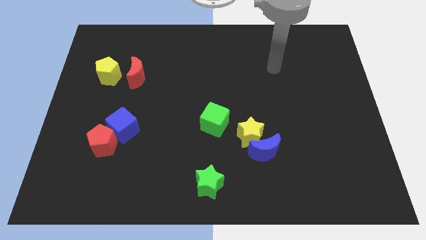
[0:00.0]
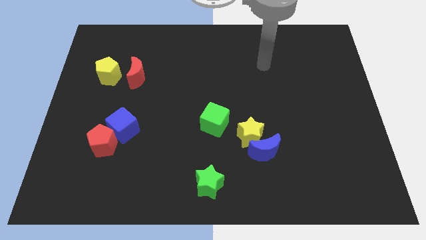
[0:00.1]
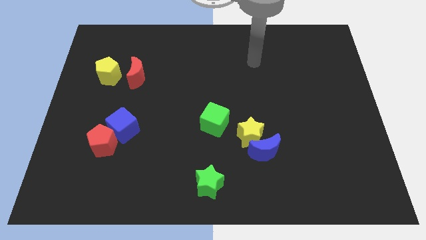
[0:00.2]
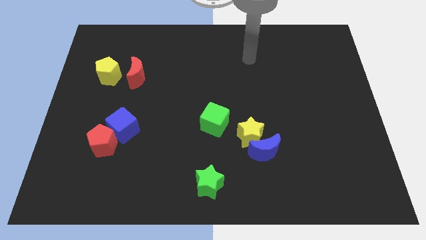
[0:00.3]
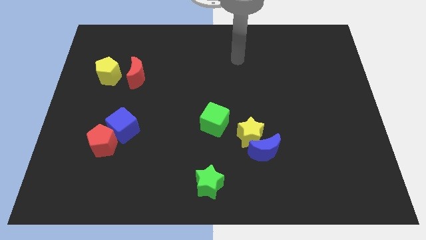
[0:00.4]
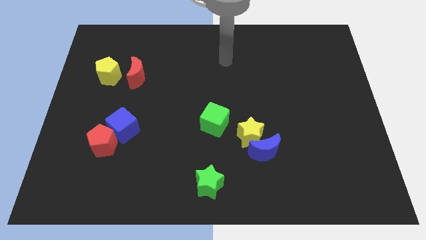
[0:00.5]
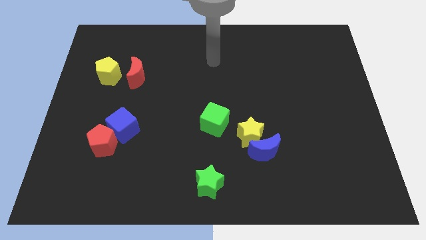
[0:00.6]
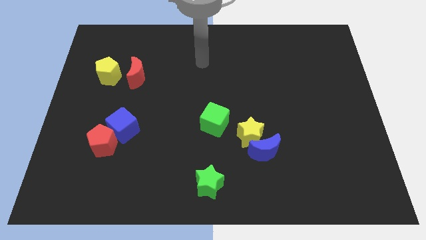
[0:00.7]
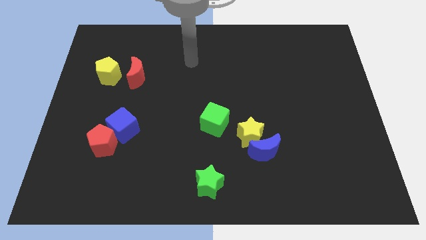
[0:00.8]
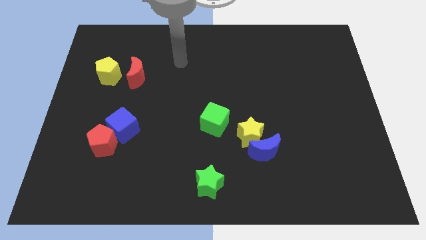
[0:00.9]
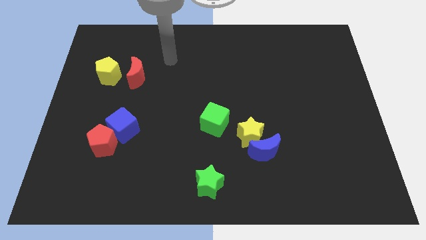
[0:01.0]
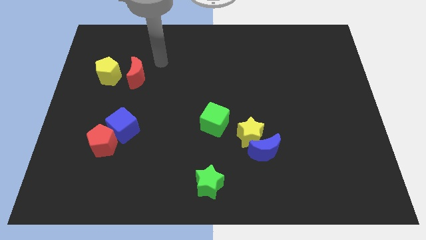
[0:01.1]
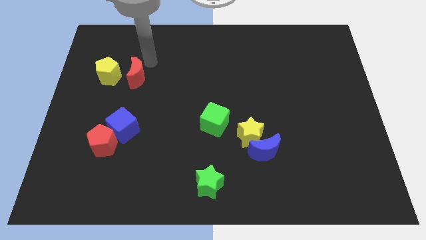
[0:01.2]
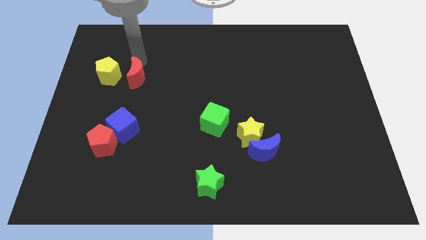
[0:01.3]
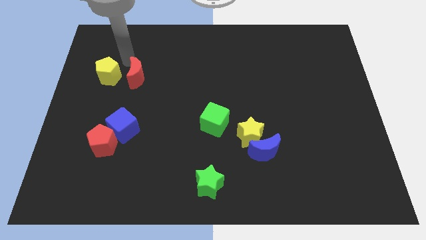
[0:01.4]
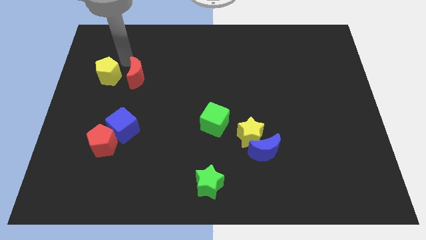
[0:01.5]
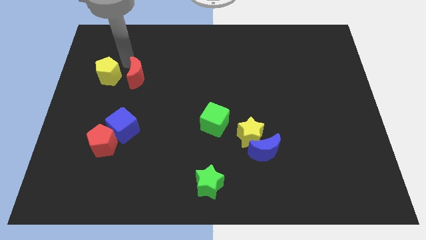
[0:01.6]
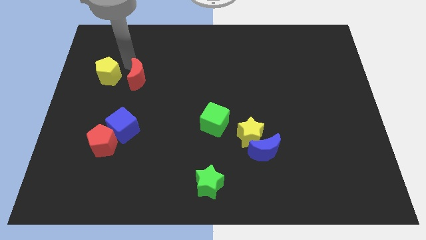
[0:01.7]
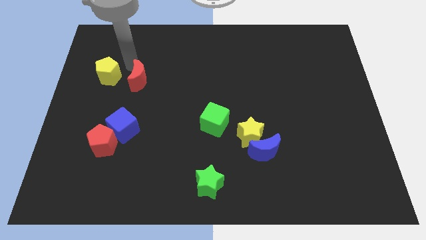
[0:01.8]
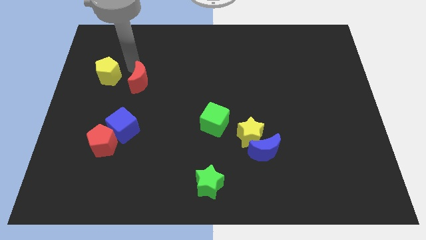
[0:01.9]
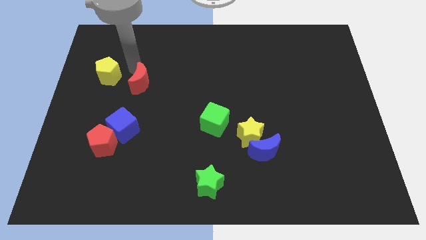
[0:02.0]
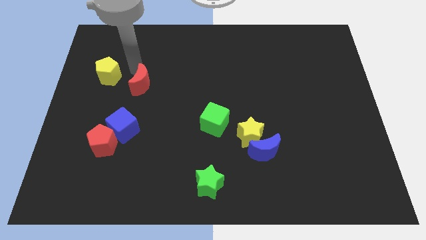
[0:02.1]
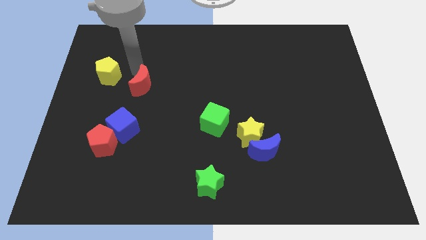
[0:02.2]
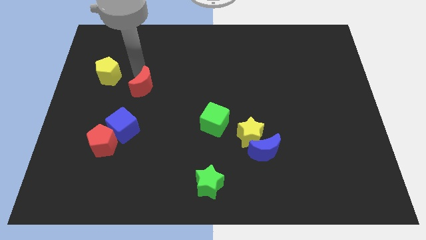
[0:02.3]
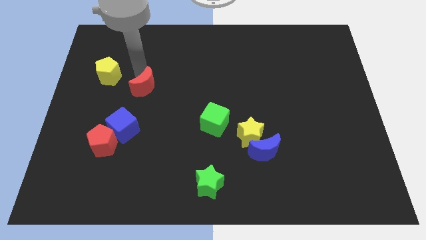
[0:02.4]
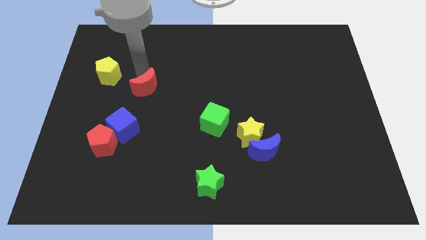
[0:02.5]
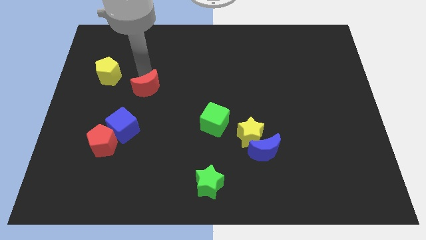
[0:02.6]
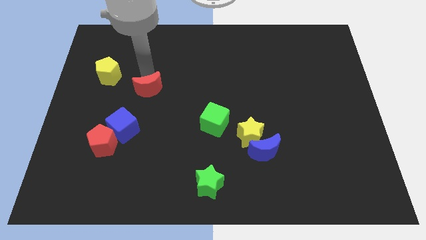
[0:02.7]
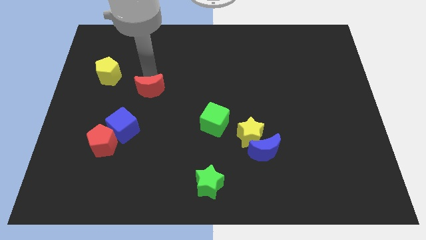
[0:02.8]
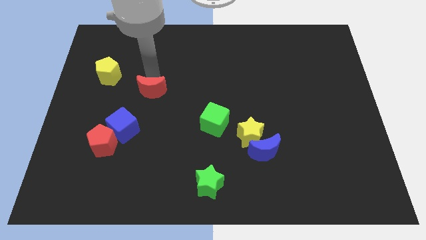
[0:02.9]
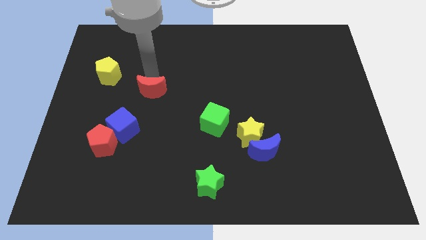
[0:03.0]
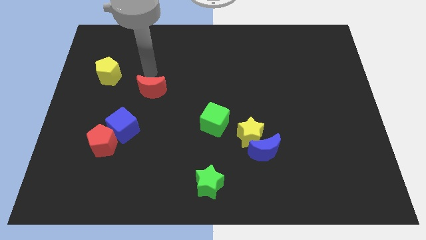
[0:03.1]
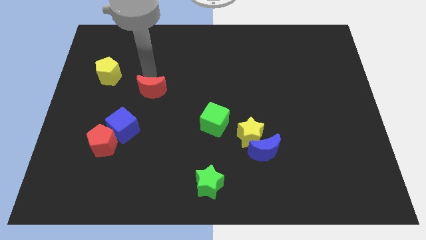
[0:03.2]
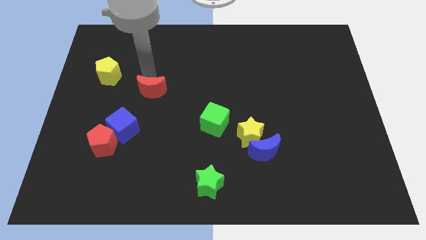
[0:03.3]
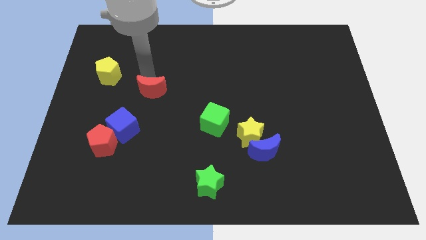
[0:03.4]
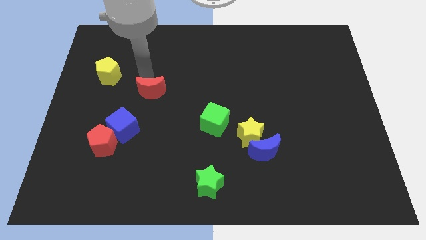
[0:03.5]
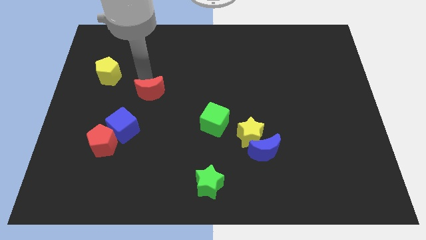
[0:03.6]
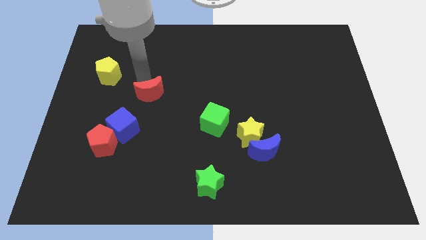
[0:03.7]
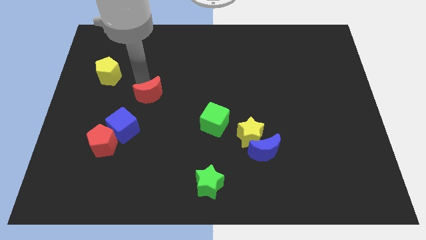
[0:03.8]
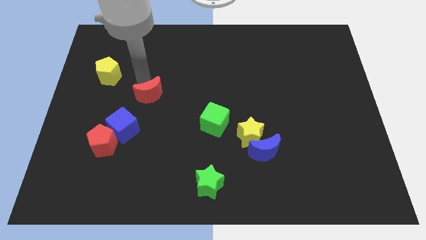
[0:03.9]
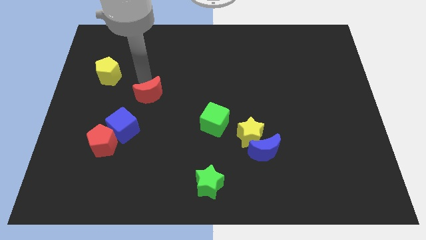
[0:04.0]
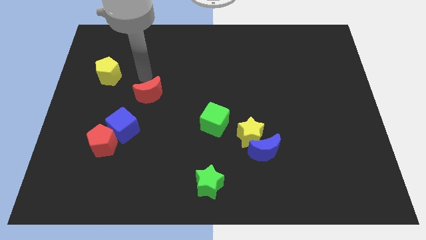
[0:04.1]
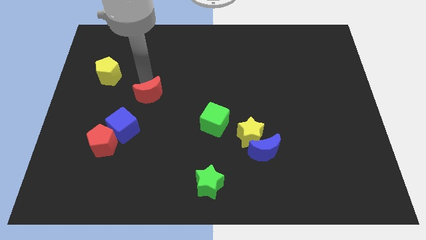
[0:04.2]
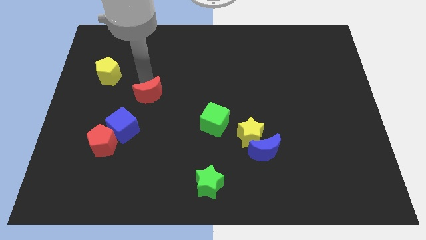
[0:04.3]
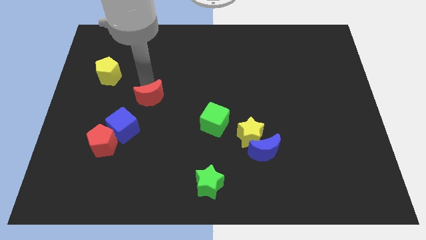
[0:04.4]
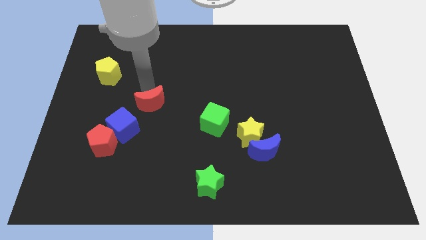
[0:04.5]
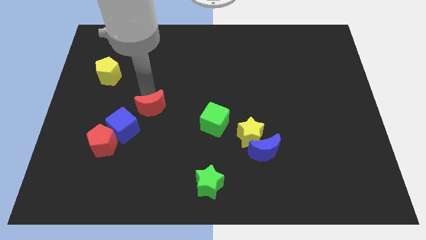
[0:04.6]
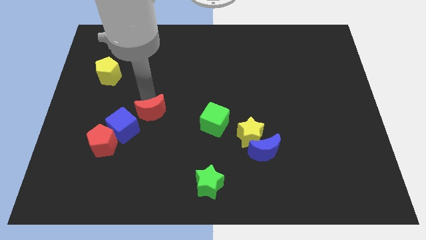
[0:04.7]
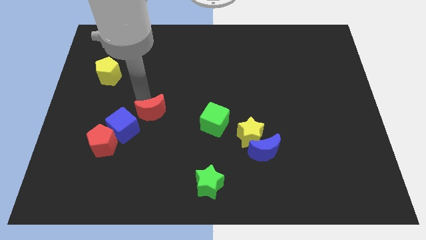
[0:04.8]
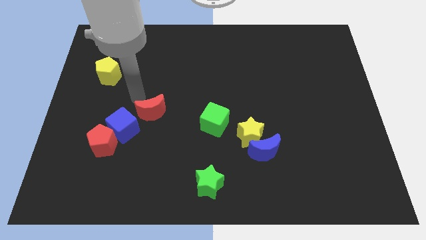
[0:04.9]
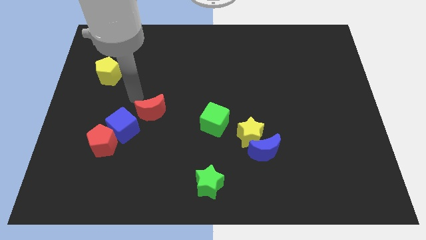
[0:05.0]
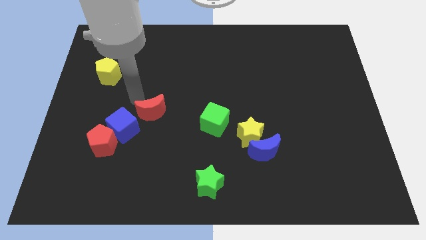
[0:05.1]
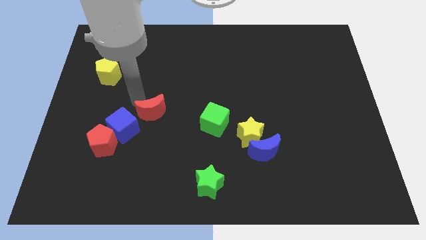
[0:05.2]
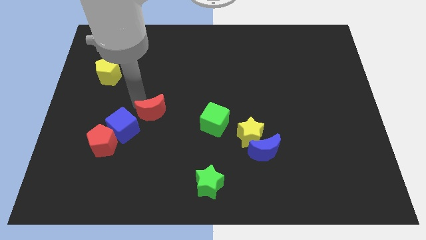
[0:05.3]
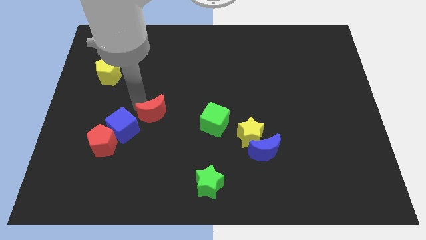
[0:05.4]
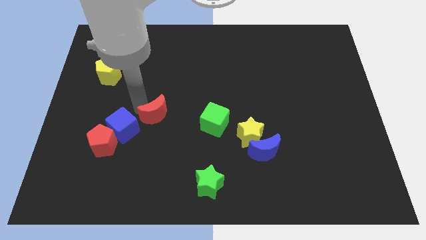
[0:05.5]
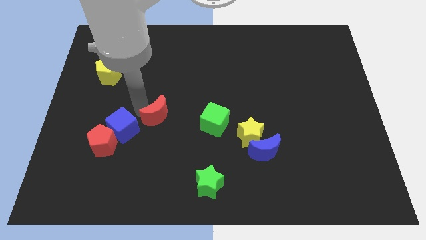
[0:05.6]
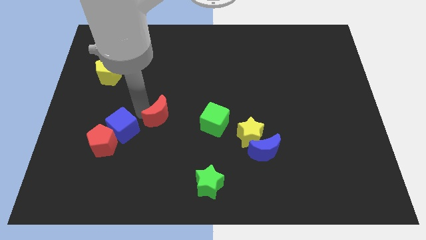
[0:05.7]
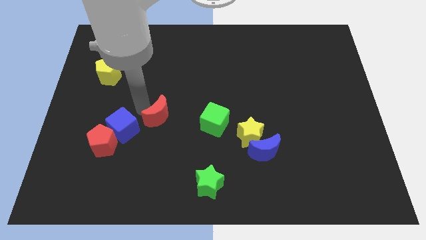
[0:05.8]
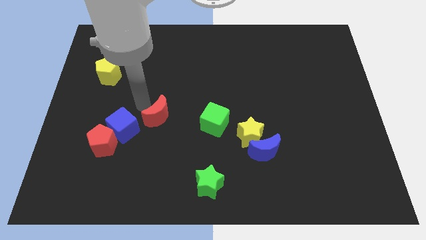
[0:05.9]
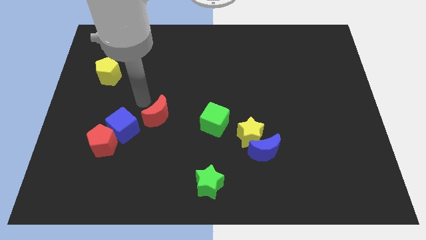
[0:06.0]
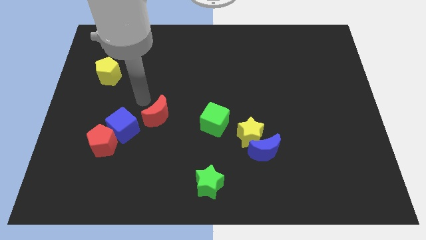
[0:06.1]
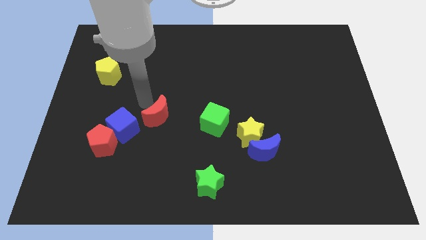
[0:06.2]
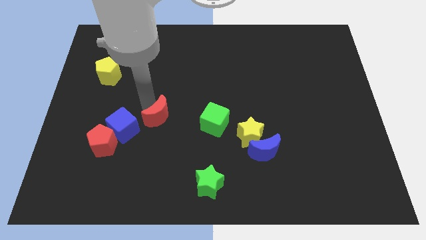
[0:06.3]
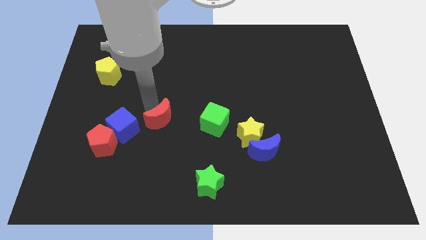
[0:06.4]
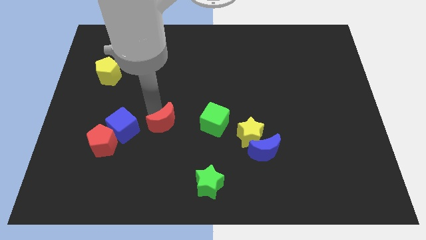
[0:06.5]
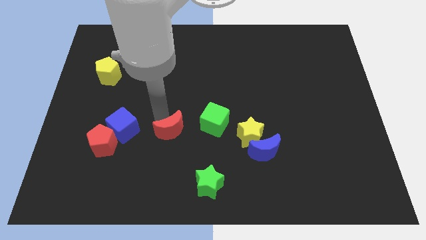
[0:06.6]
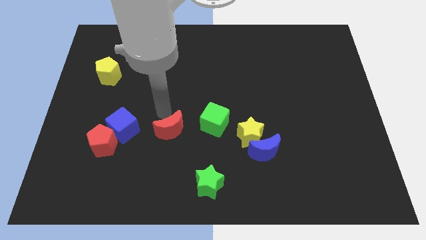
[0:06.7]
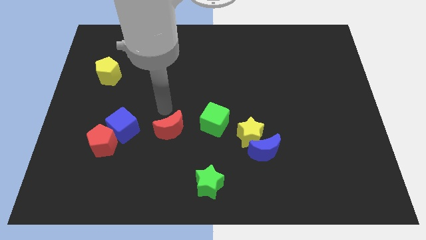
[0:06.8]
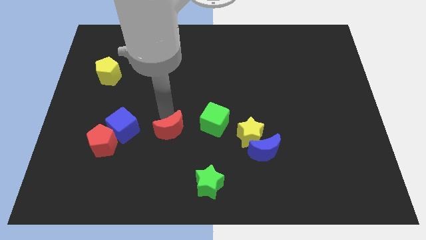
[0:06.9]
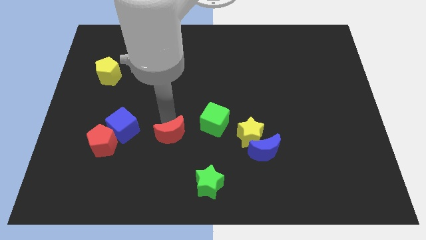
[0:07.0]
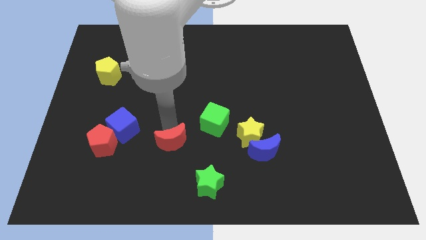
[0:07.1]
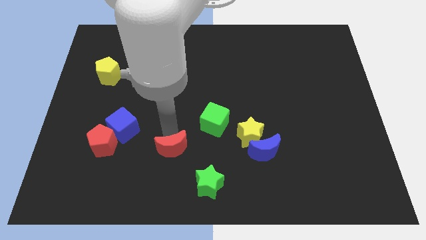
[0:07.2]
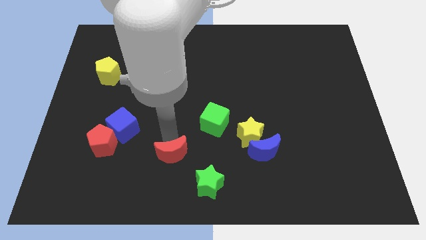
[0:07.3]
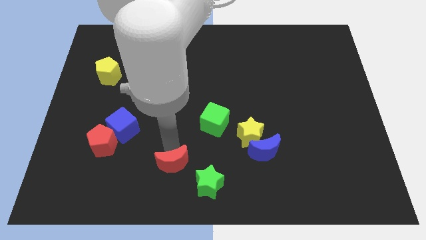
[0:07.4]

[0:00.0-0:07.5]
push the red moon to the bottom side
